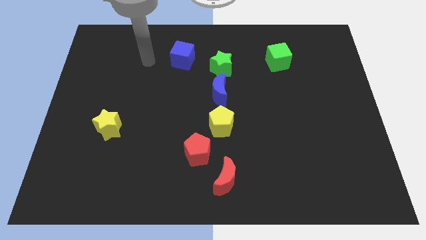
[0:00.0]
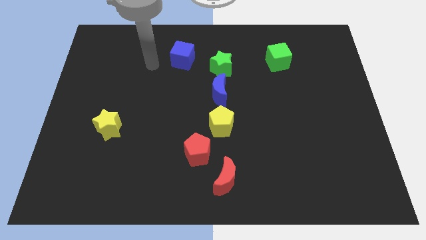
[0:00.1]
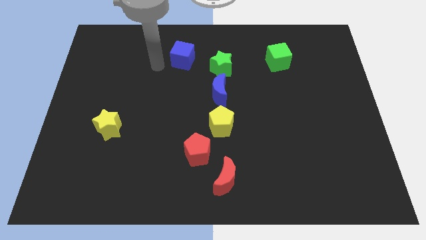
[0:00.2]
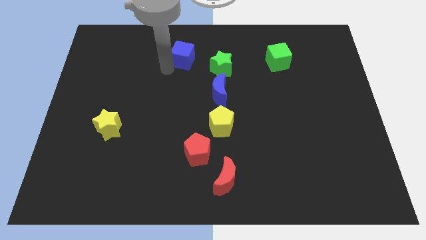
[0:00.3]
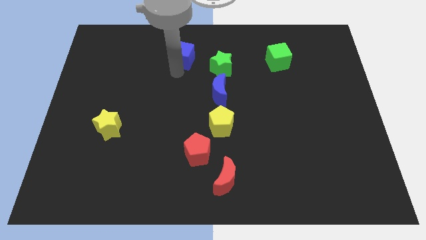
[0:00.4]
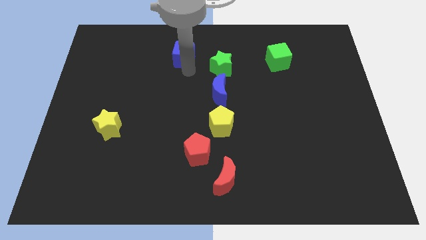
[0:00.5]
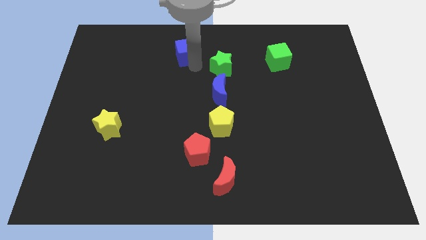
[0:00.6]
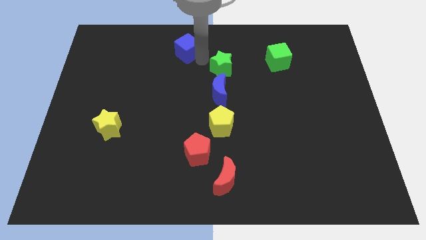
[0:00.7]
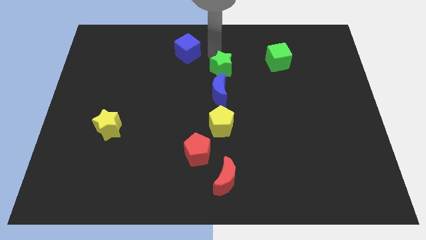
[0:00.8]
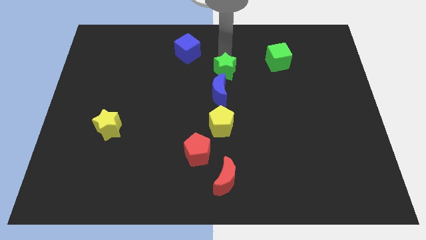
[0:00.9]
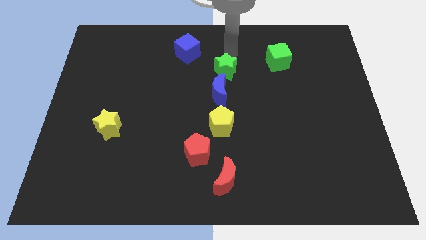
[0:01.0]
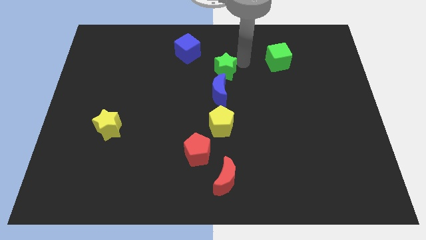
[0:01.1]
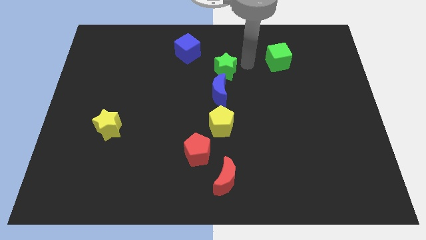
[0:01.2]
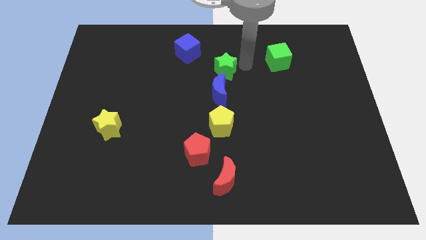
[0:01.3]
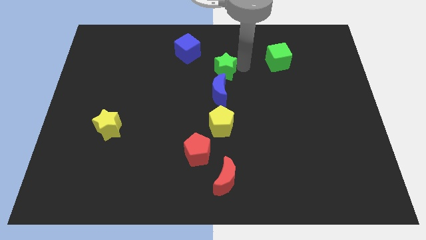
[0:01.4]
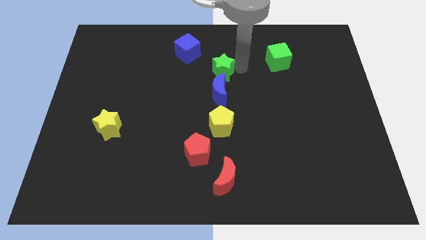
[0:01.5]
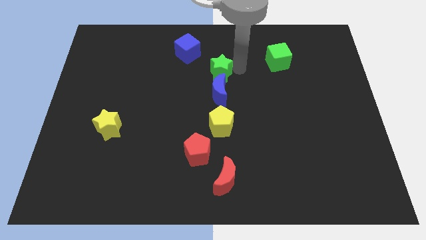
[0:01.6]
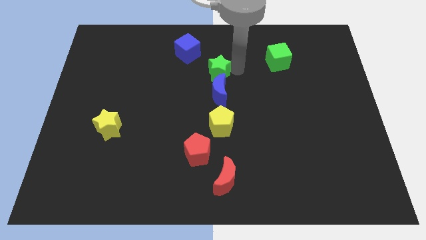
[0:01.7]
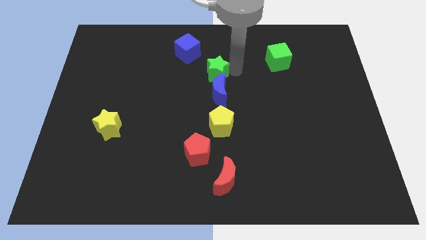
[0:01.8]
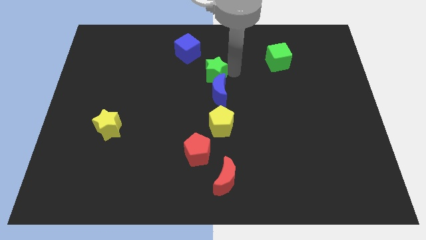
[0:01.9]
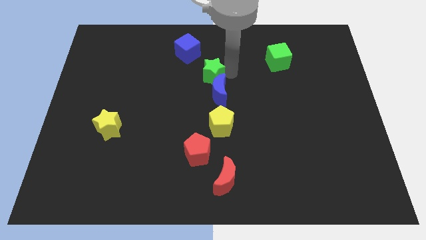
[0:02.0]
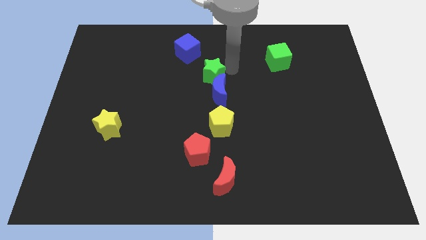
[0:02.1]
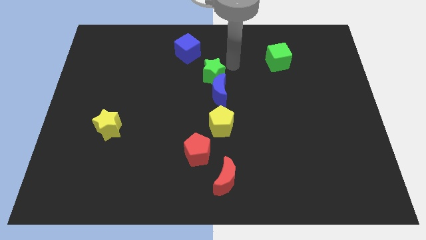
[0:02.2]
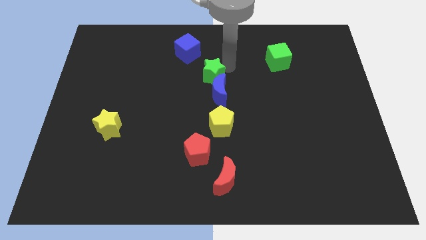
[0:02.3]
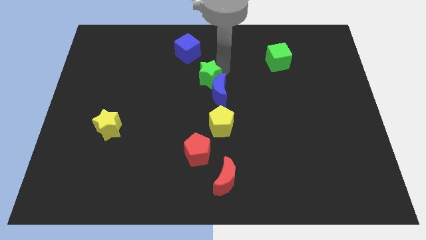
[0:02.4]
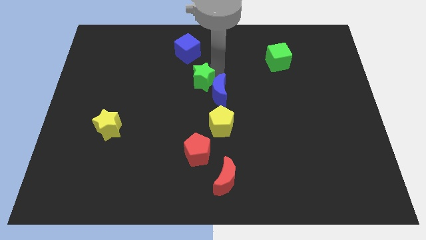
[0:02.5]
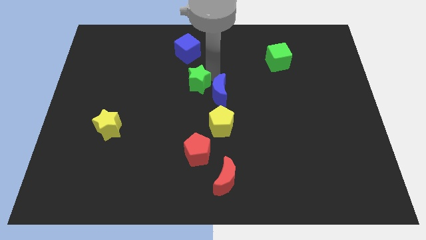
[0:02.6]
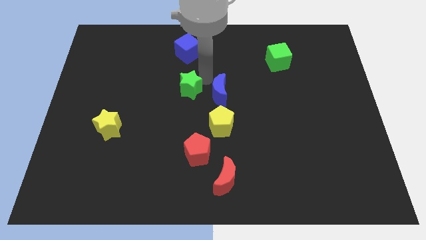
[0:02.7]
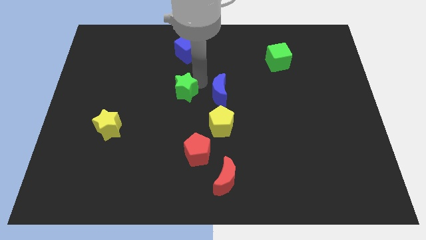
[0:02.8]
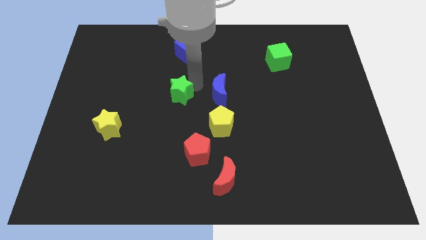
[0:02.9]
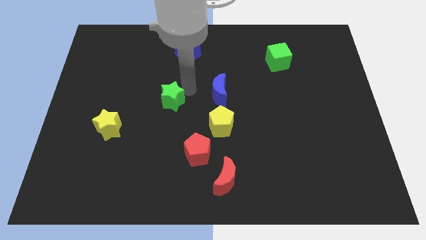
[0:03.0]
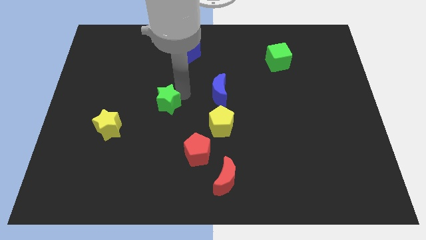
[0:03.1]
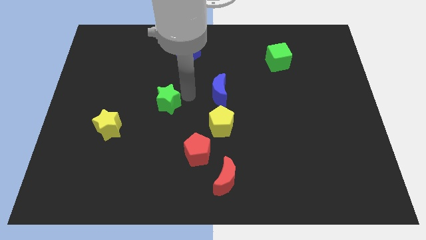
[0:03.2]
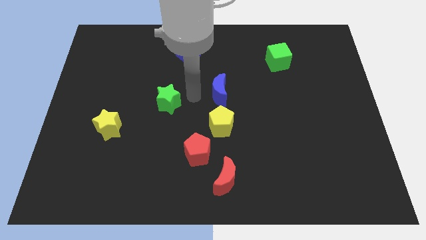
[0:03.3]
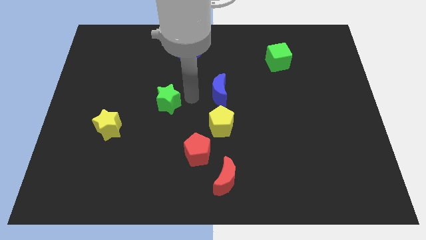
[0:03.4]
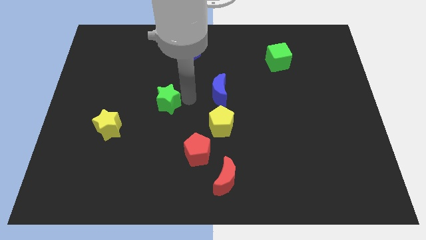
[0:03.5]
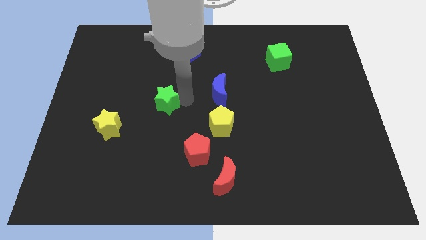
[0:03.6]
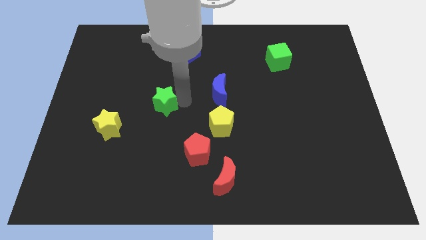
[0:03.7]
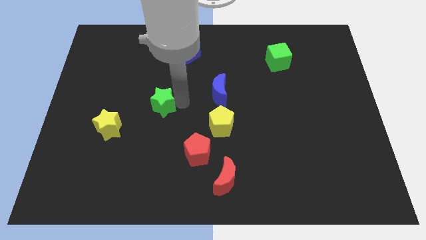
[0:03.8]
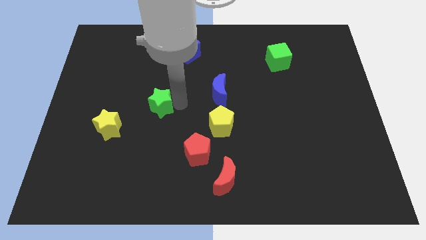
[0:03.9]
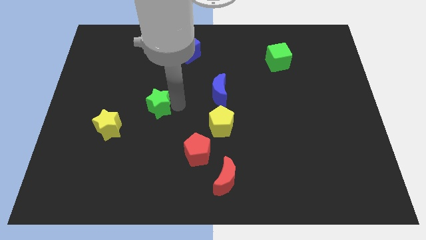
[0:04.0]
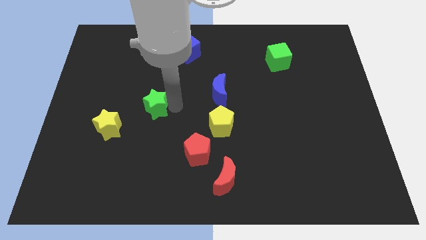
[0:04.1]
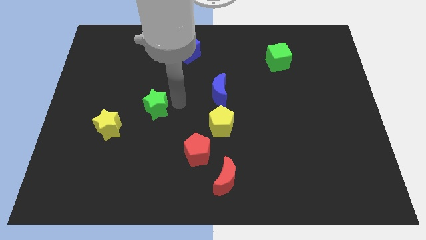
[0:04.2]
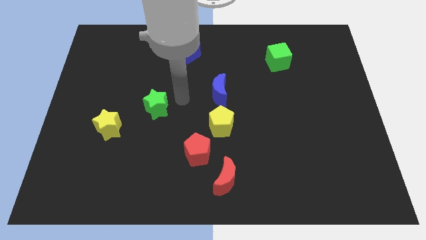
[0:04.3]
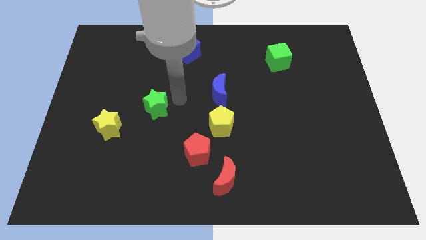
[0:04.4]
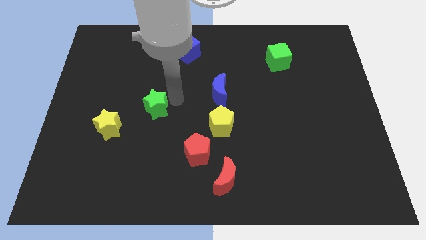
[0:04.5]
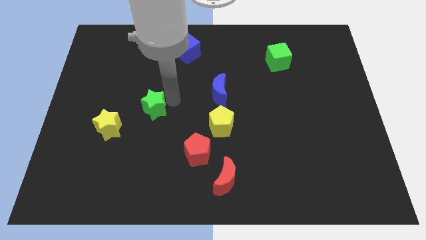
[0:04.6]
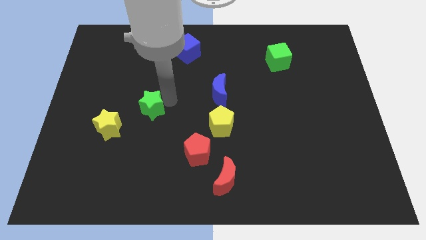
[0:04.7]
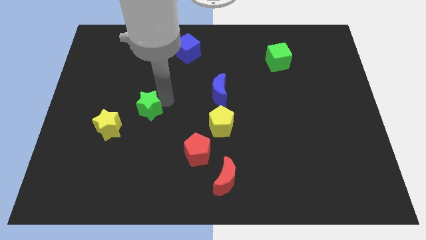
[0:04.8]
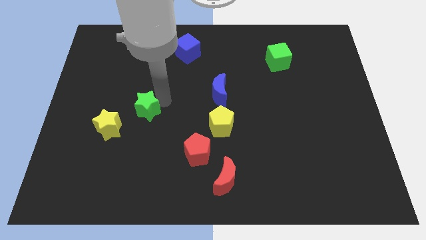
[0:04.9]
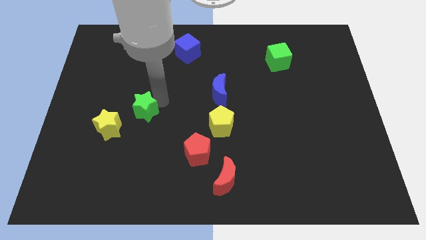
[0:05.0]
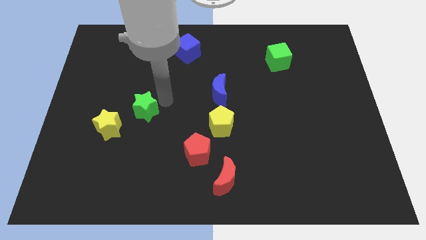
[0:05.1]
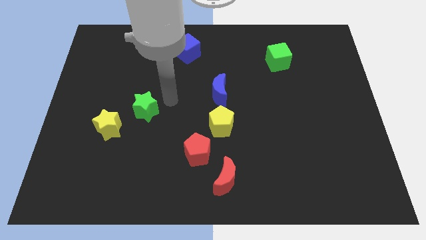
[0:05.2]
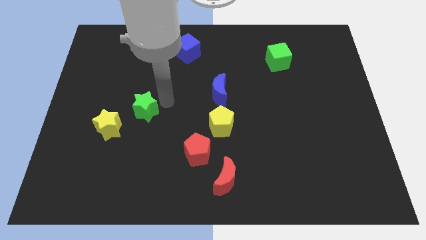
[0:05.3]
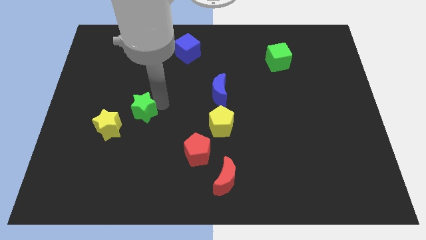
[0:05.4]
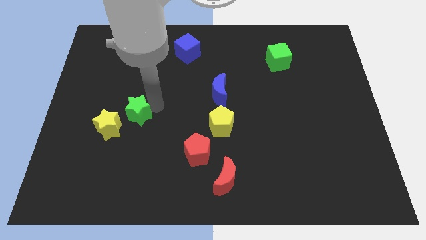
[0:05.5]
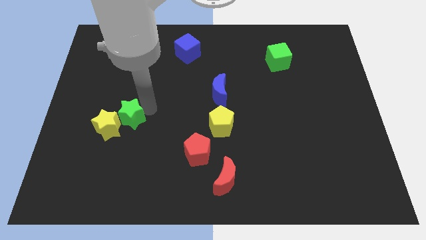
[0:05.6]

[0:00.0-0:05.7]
put the green star to the yellow star

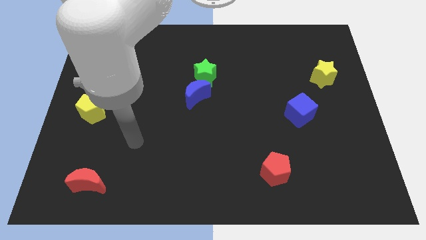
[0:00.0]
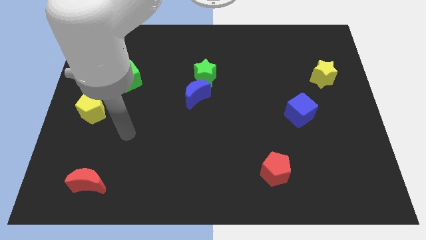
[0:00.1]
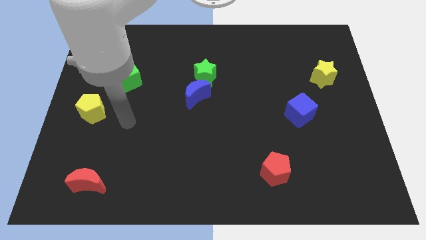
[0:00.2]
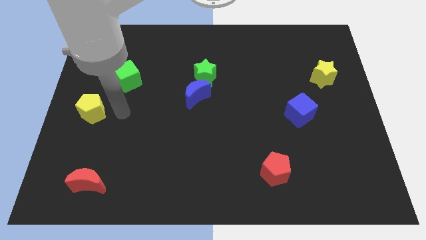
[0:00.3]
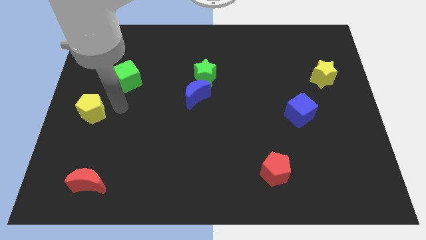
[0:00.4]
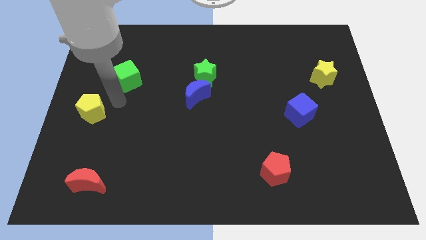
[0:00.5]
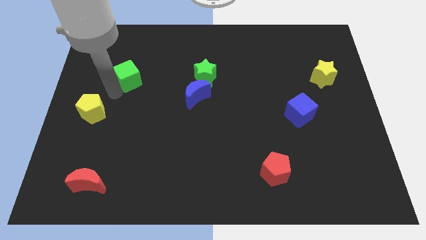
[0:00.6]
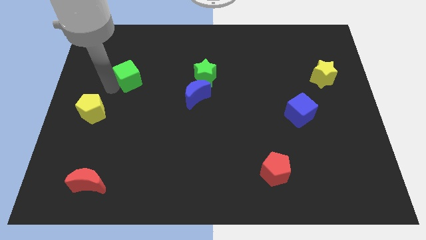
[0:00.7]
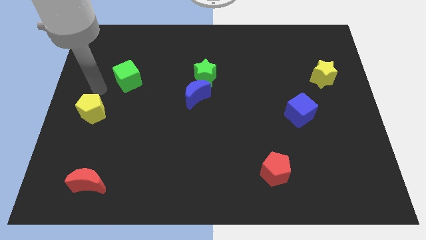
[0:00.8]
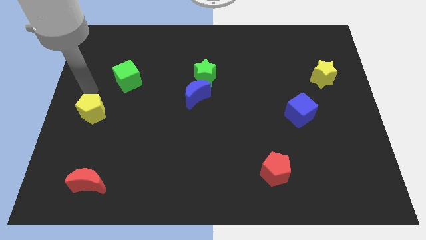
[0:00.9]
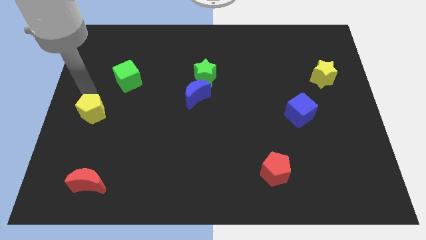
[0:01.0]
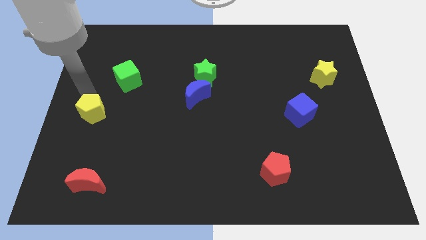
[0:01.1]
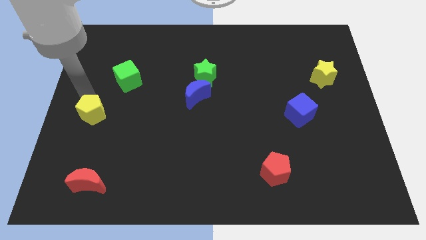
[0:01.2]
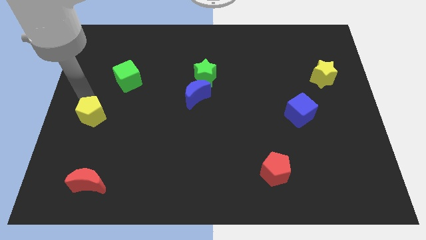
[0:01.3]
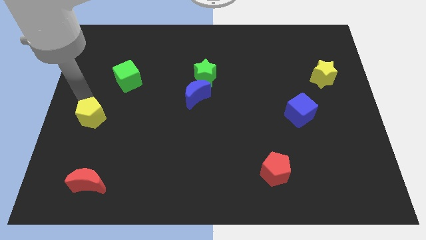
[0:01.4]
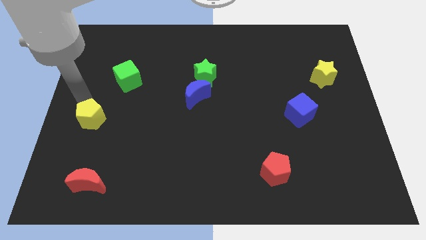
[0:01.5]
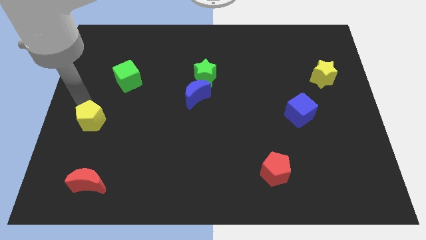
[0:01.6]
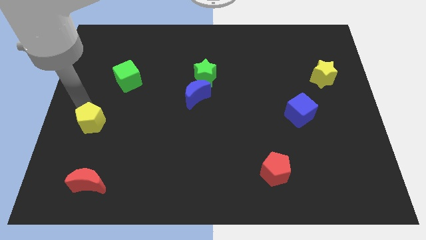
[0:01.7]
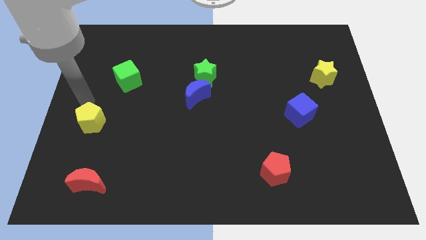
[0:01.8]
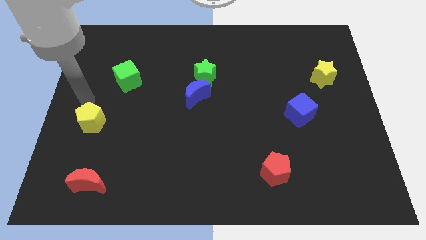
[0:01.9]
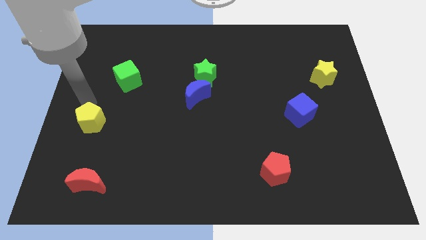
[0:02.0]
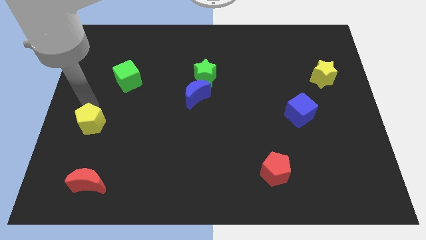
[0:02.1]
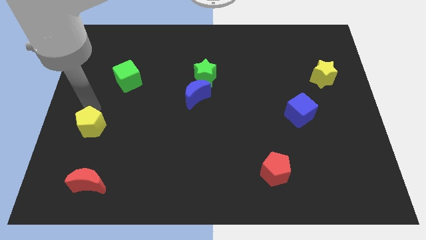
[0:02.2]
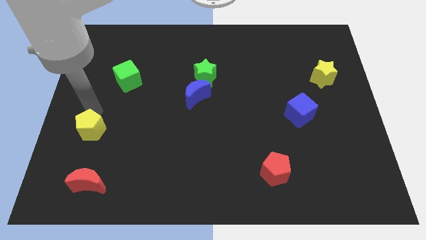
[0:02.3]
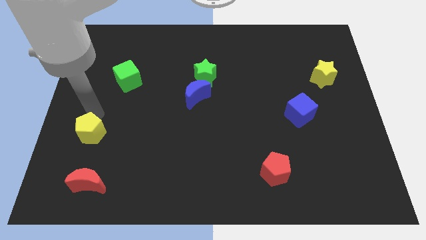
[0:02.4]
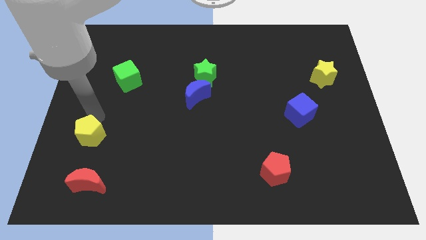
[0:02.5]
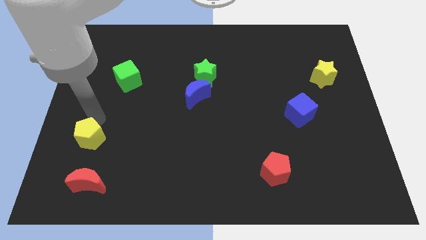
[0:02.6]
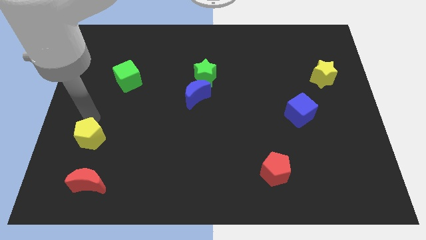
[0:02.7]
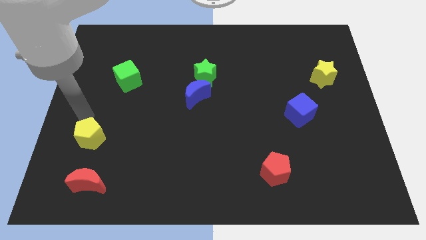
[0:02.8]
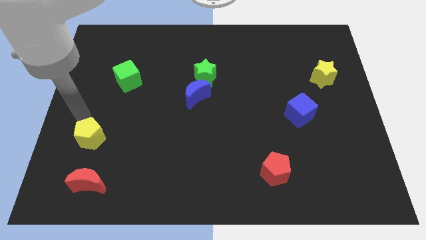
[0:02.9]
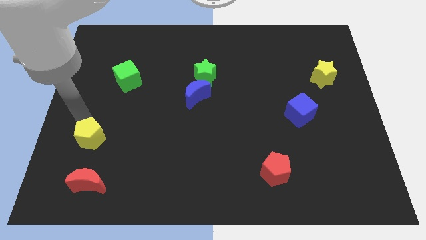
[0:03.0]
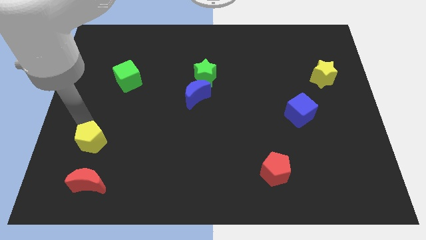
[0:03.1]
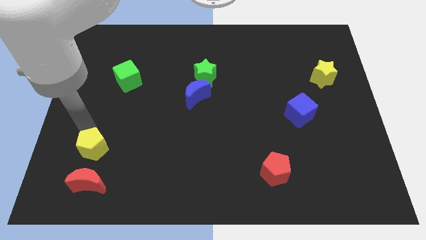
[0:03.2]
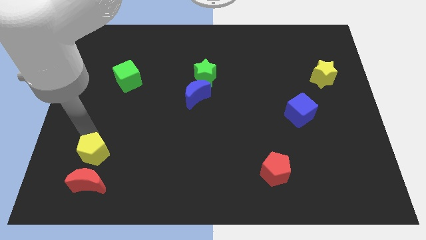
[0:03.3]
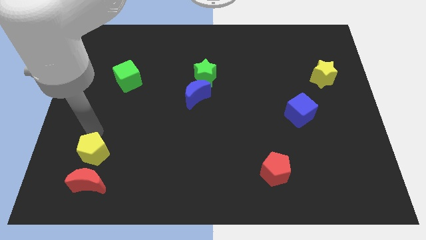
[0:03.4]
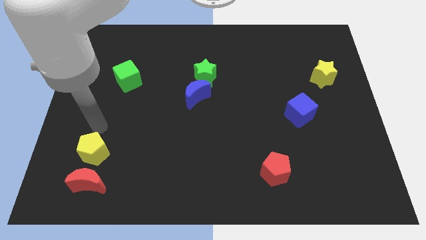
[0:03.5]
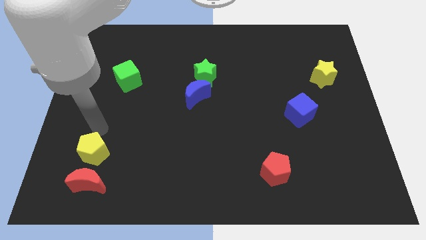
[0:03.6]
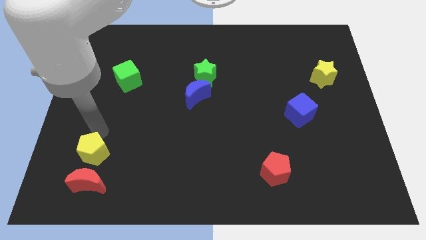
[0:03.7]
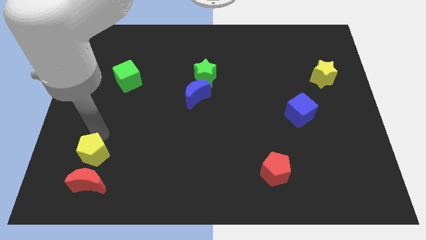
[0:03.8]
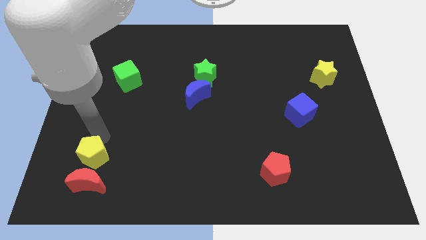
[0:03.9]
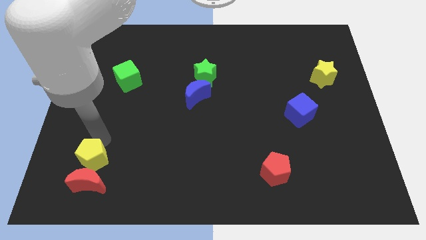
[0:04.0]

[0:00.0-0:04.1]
slide the yellow pentagon close to the red moon
